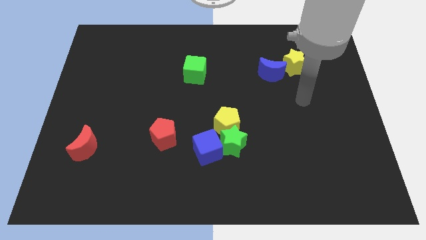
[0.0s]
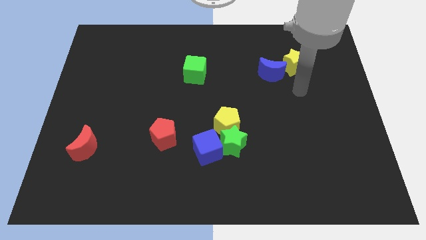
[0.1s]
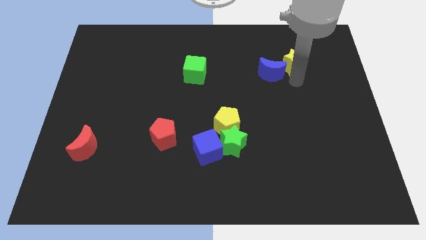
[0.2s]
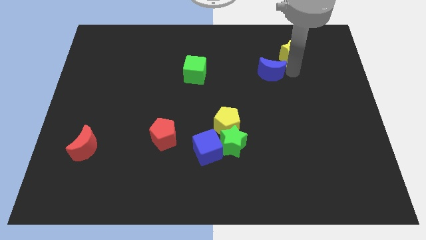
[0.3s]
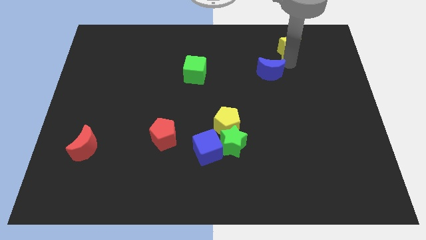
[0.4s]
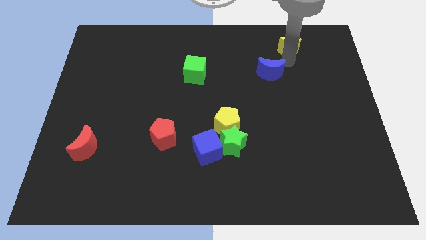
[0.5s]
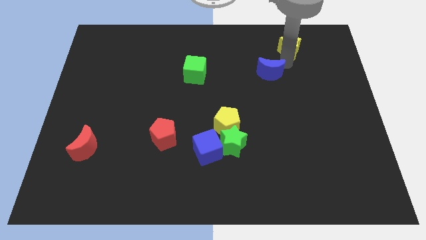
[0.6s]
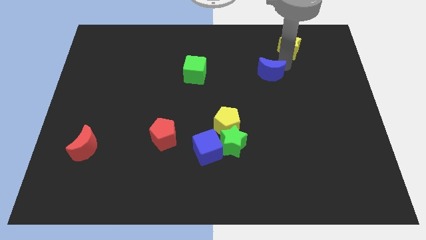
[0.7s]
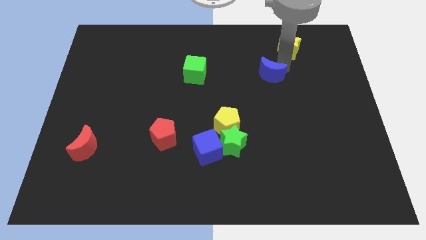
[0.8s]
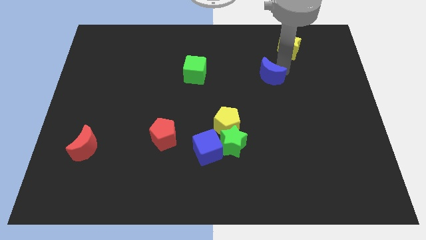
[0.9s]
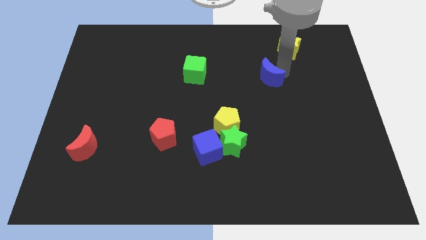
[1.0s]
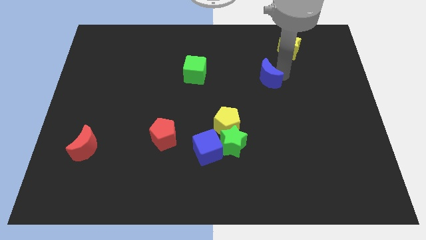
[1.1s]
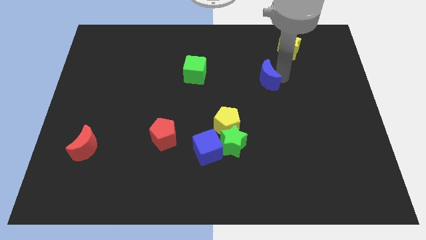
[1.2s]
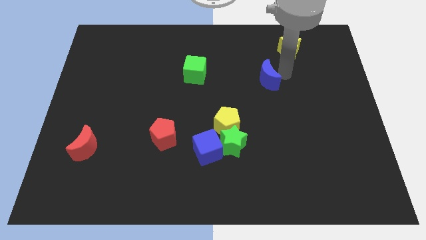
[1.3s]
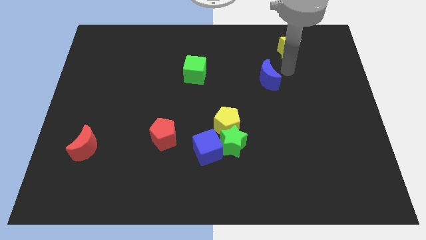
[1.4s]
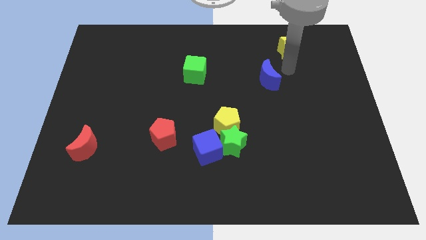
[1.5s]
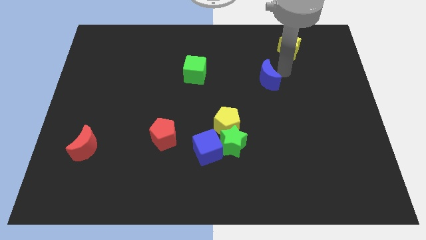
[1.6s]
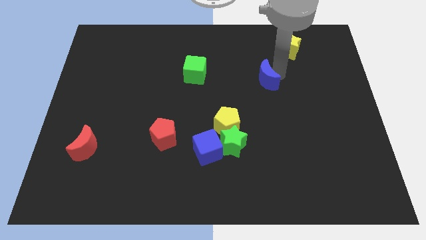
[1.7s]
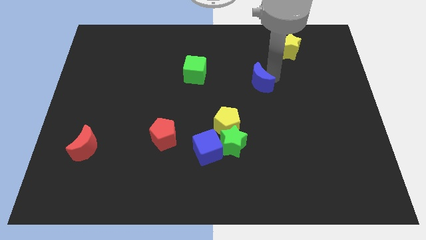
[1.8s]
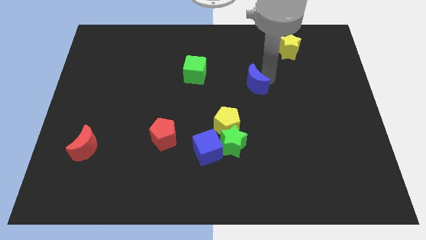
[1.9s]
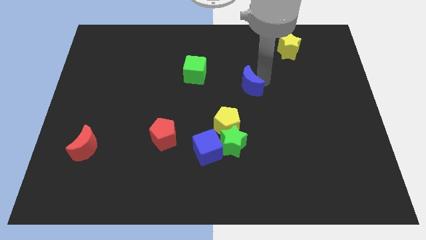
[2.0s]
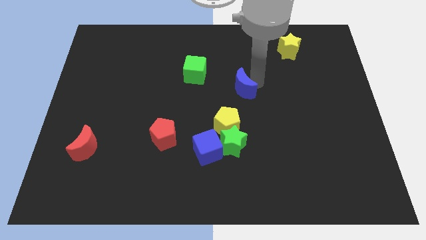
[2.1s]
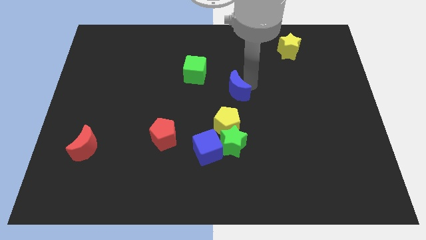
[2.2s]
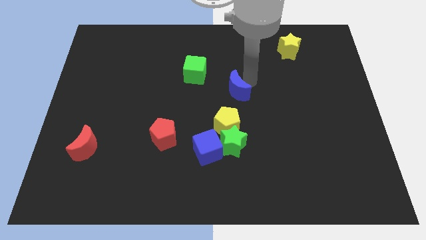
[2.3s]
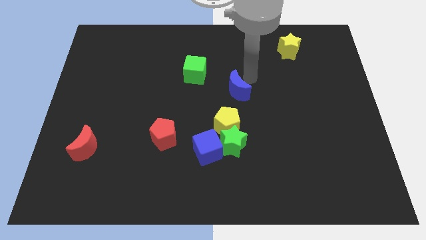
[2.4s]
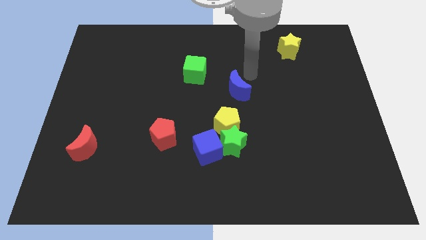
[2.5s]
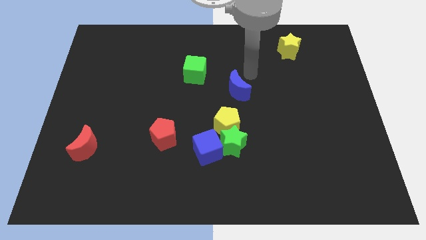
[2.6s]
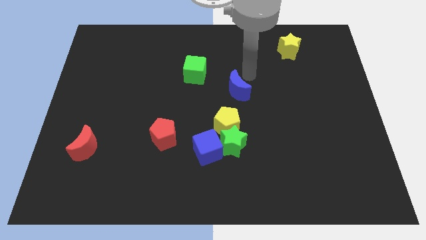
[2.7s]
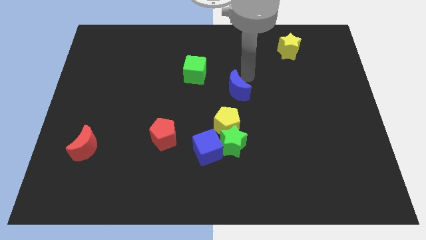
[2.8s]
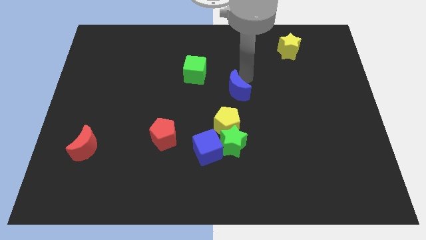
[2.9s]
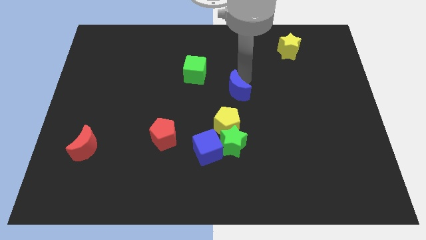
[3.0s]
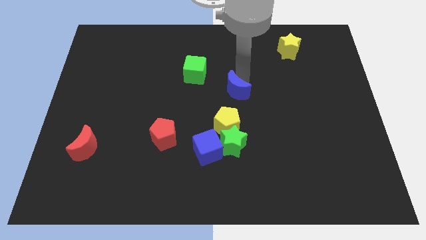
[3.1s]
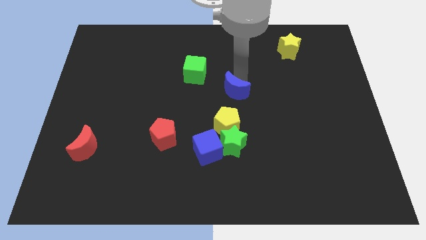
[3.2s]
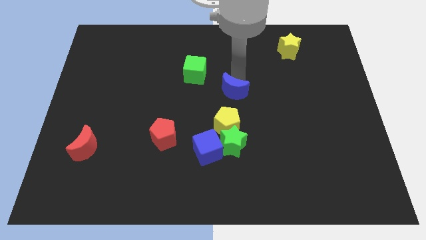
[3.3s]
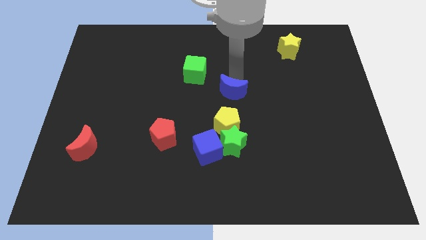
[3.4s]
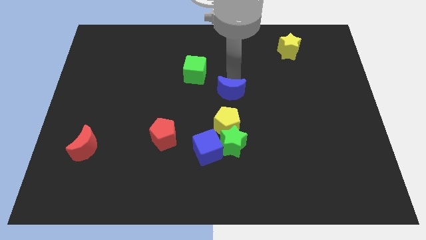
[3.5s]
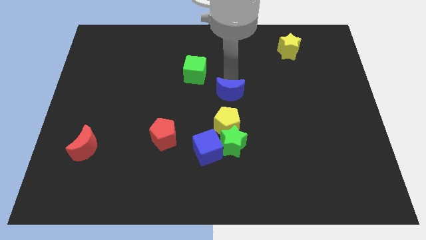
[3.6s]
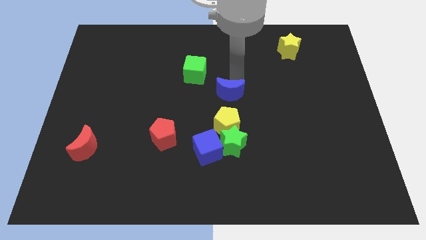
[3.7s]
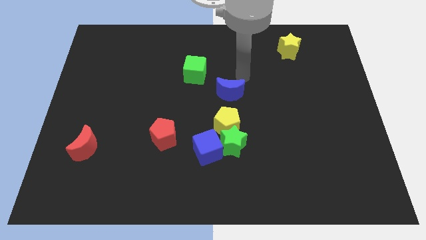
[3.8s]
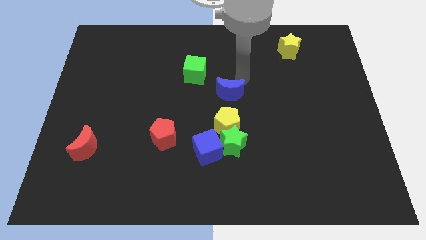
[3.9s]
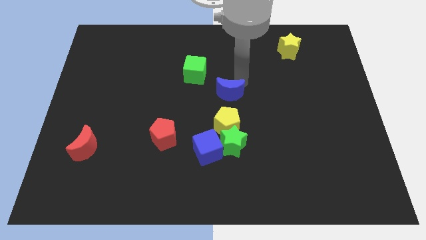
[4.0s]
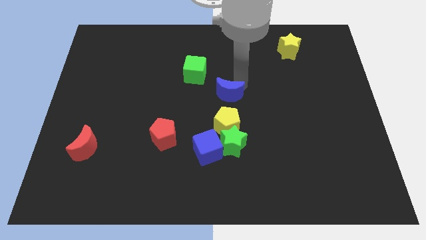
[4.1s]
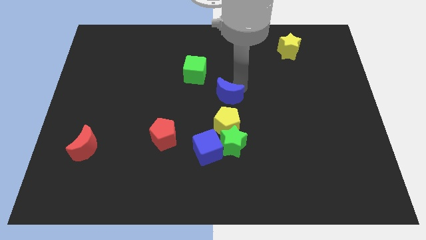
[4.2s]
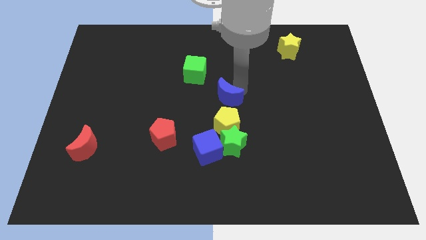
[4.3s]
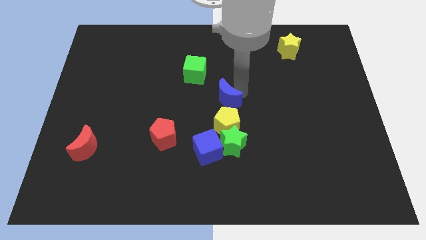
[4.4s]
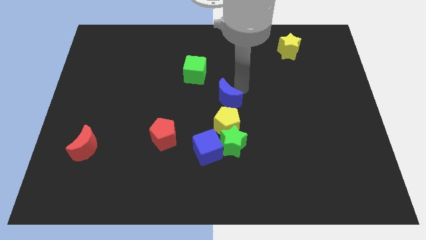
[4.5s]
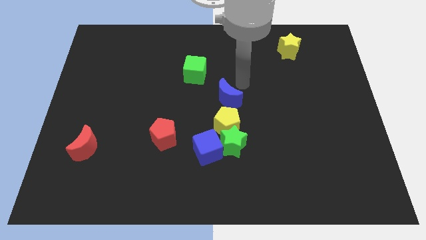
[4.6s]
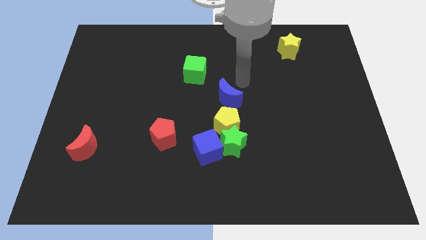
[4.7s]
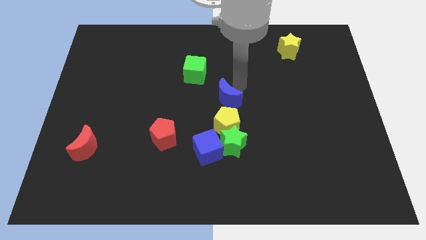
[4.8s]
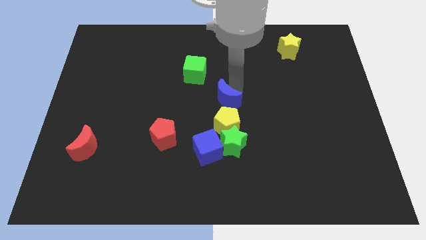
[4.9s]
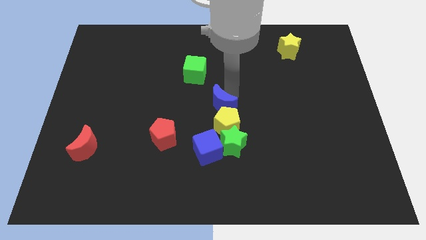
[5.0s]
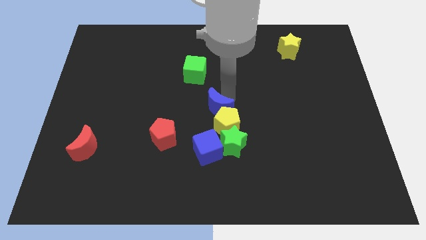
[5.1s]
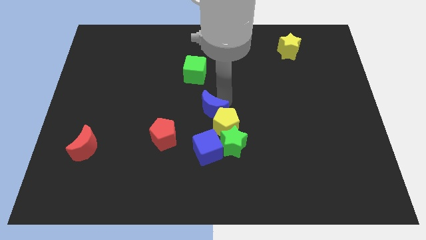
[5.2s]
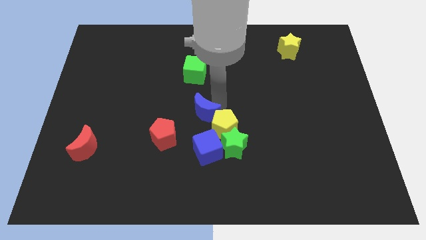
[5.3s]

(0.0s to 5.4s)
slide the blue moon downwards and to the left

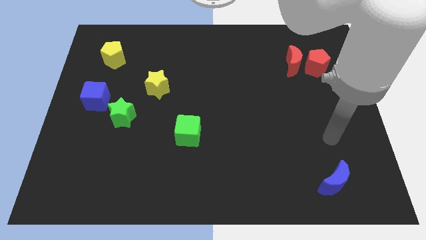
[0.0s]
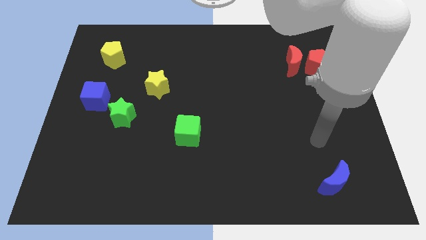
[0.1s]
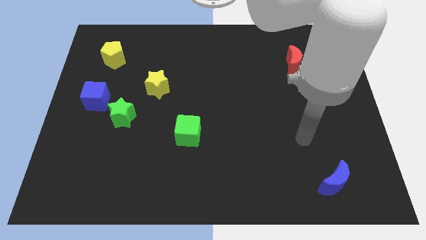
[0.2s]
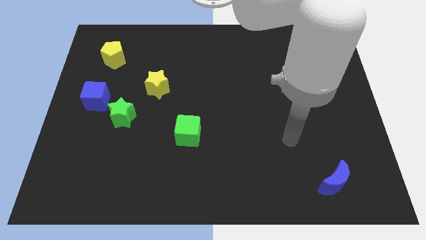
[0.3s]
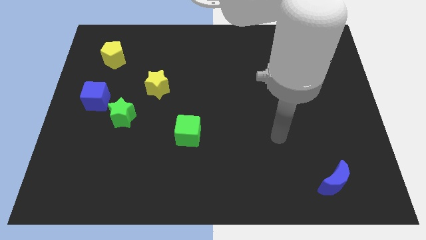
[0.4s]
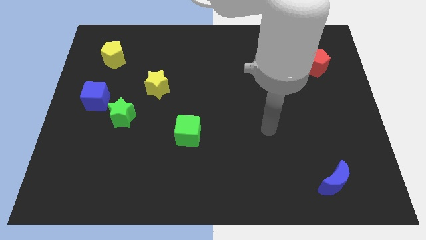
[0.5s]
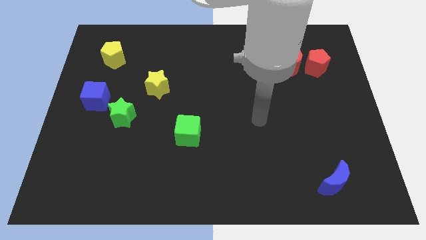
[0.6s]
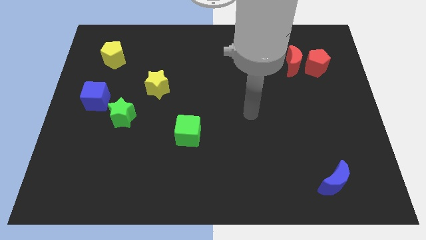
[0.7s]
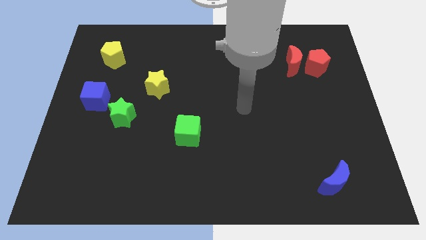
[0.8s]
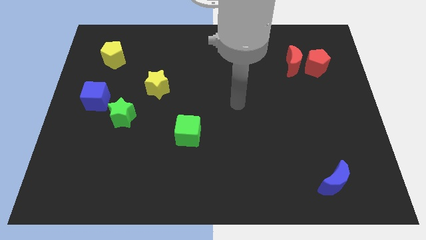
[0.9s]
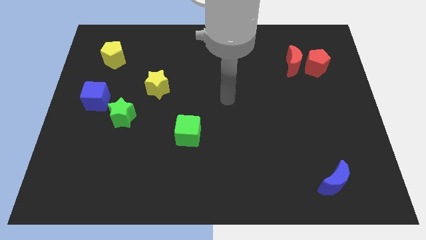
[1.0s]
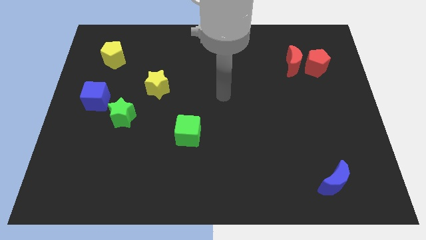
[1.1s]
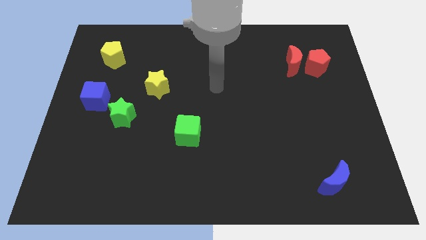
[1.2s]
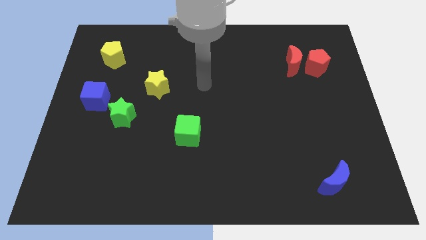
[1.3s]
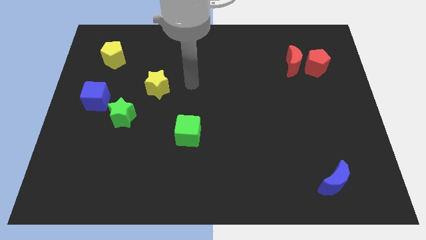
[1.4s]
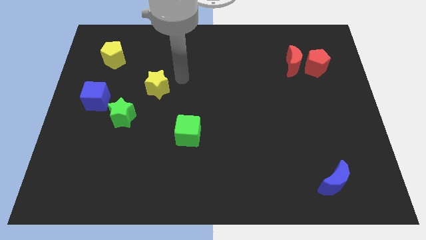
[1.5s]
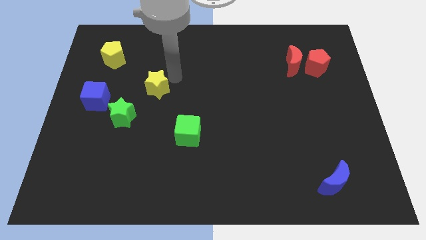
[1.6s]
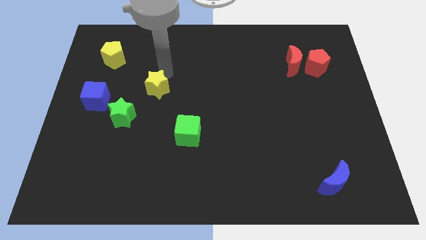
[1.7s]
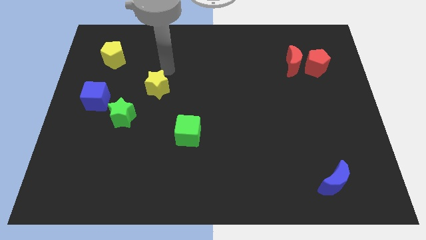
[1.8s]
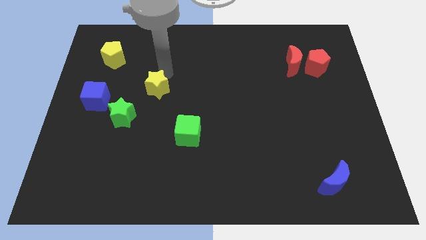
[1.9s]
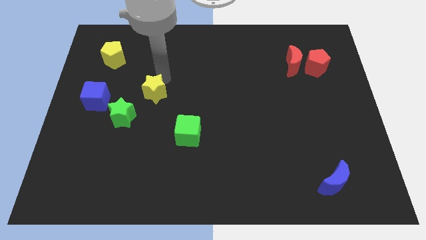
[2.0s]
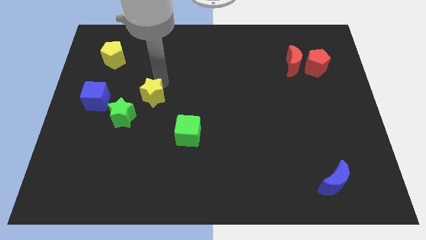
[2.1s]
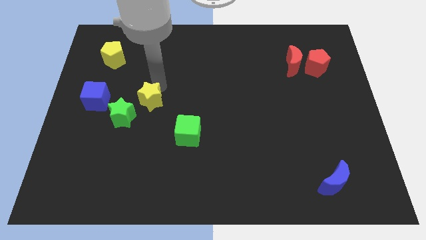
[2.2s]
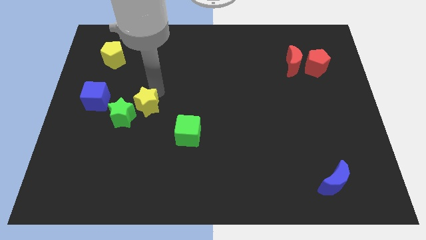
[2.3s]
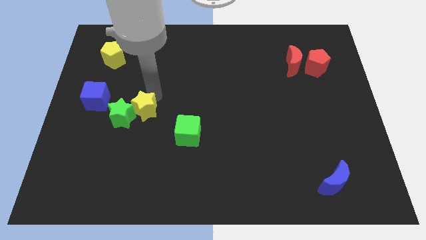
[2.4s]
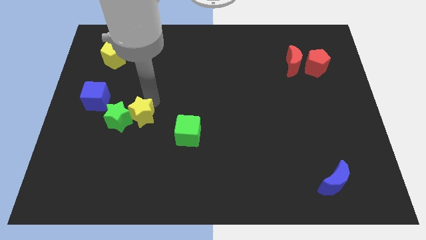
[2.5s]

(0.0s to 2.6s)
slightly move the yellow star diagonally down and to the left
